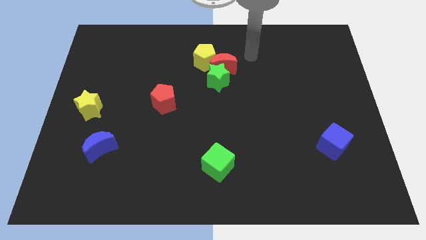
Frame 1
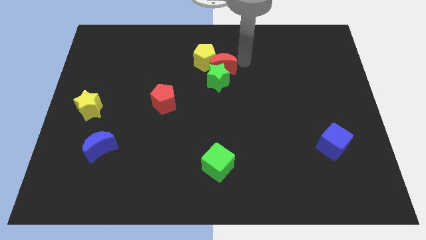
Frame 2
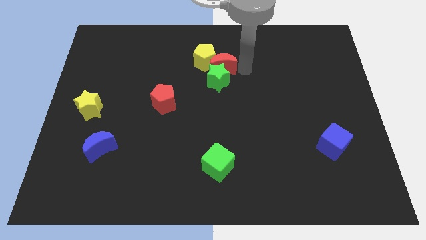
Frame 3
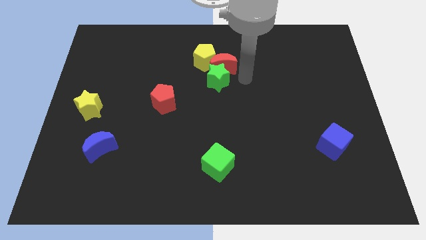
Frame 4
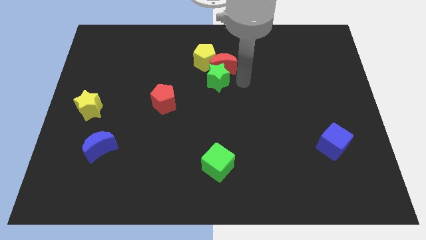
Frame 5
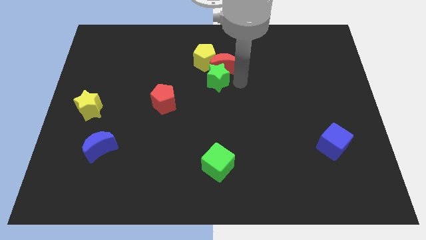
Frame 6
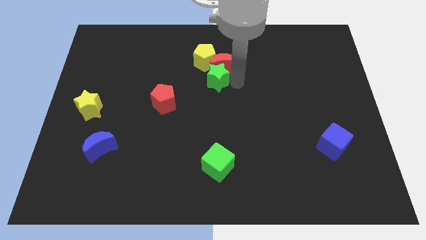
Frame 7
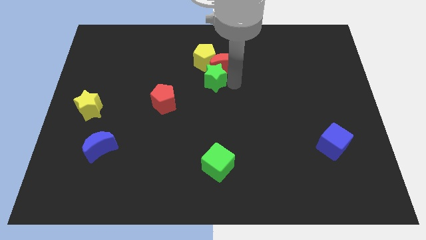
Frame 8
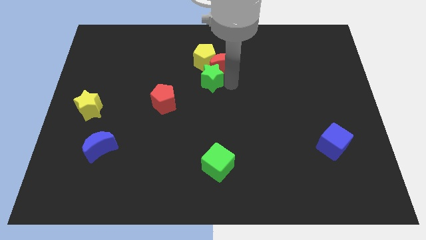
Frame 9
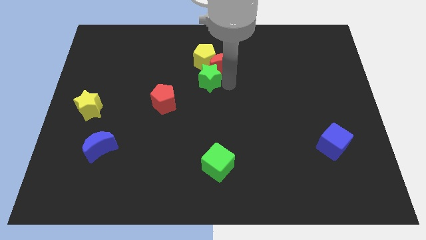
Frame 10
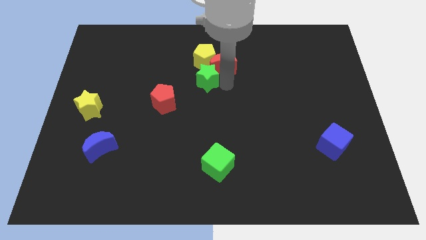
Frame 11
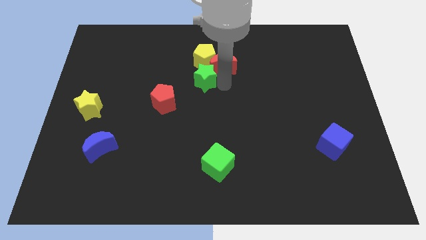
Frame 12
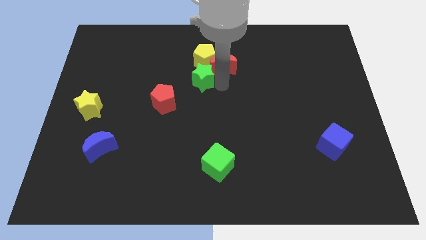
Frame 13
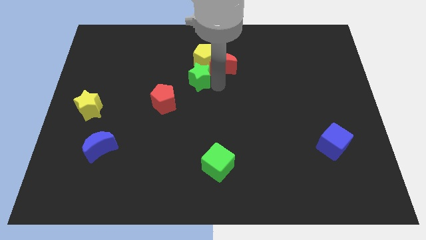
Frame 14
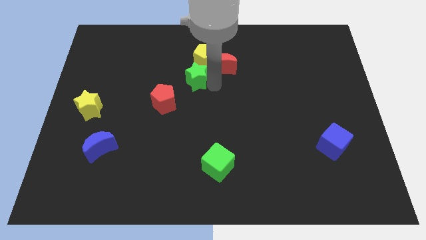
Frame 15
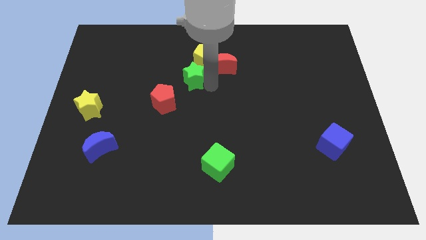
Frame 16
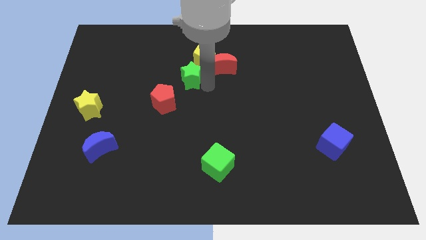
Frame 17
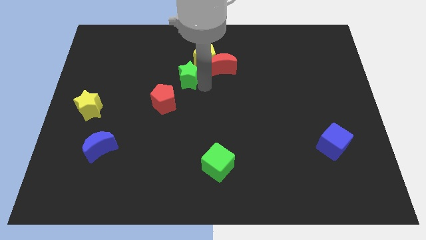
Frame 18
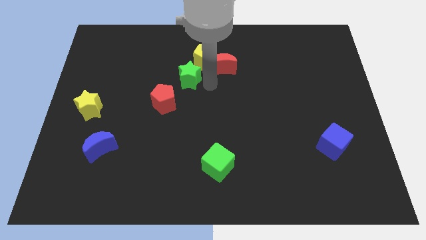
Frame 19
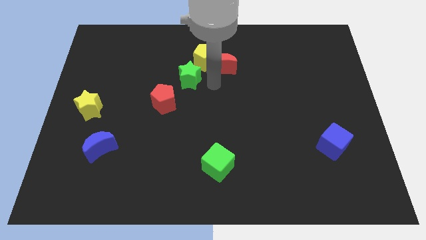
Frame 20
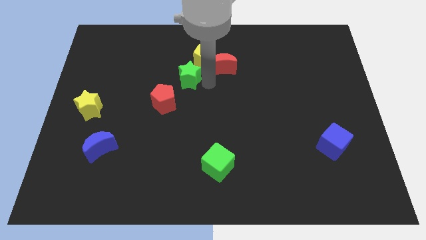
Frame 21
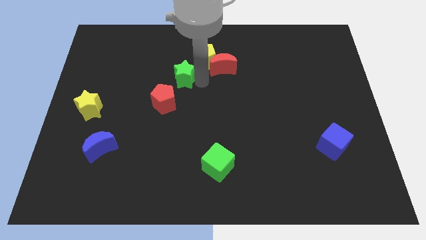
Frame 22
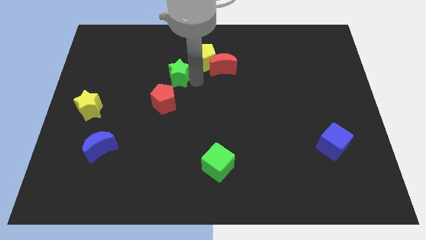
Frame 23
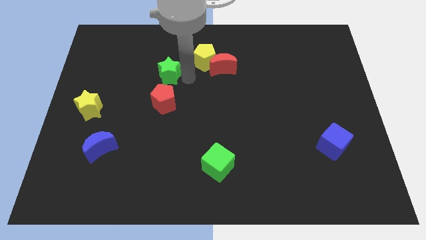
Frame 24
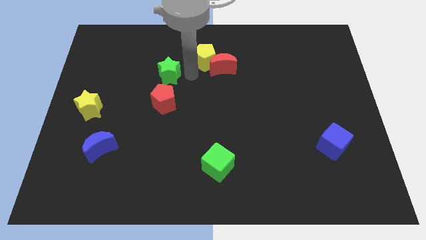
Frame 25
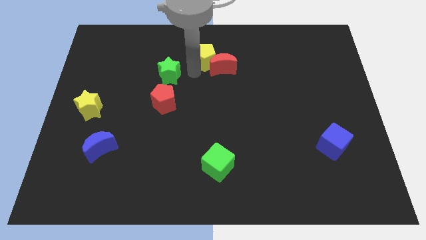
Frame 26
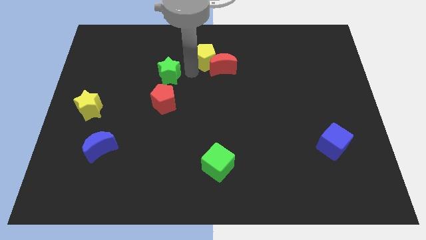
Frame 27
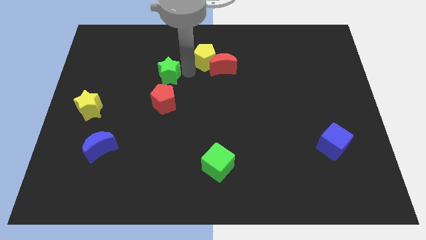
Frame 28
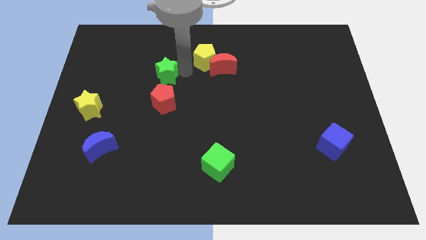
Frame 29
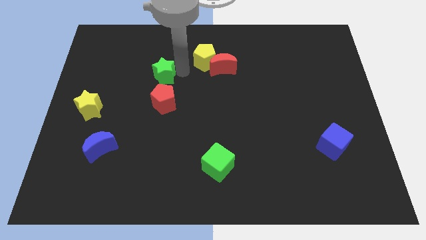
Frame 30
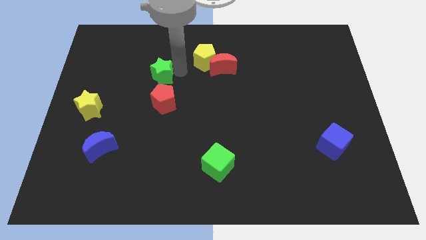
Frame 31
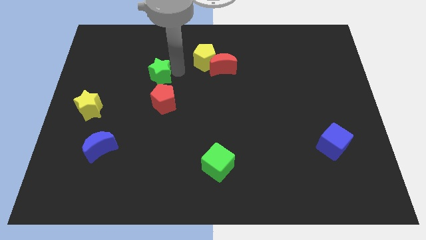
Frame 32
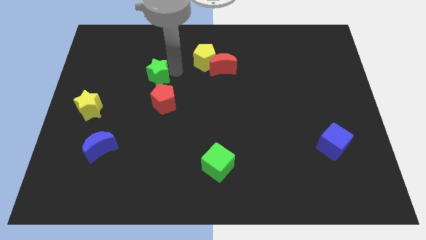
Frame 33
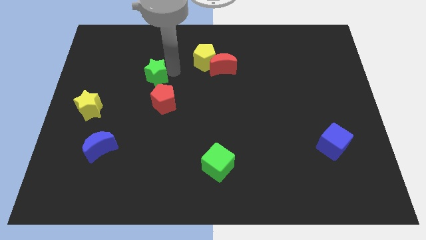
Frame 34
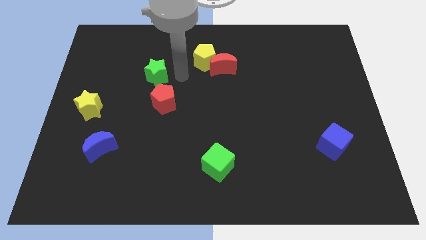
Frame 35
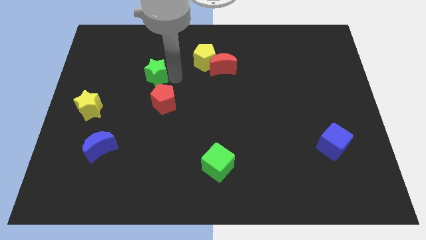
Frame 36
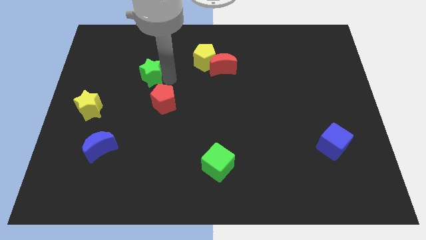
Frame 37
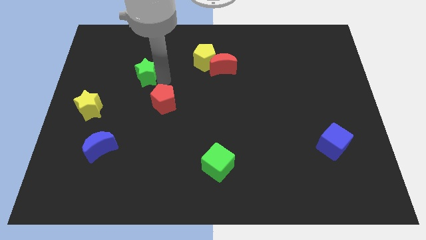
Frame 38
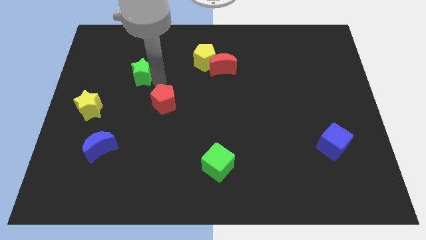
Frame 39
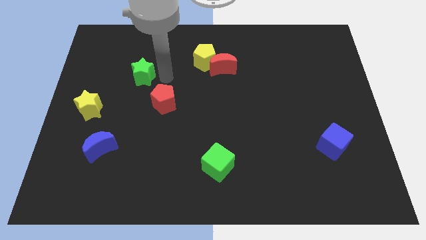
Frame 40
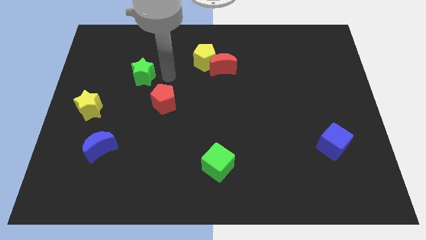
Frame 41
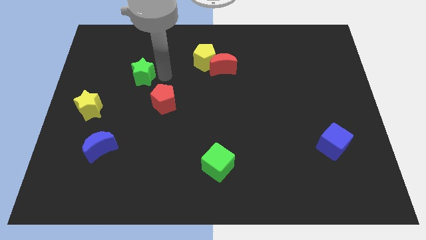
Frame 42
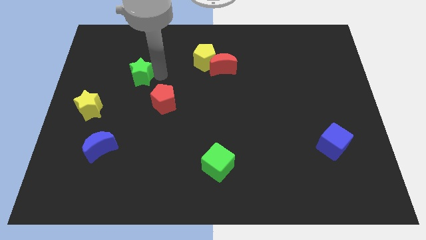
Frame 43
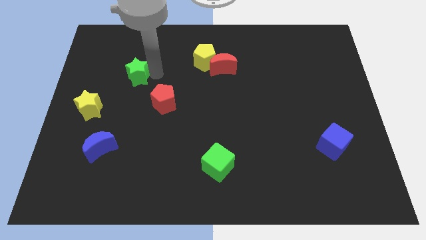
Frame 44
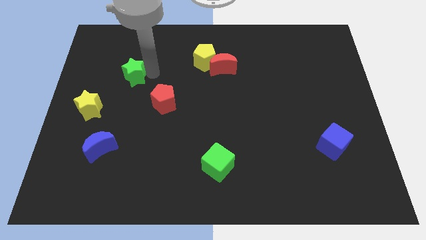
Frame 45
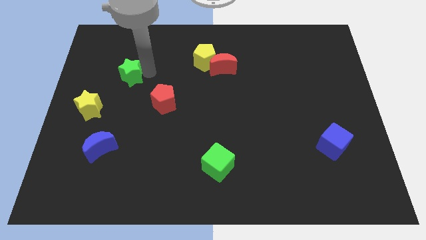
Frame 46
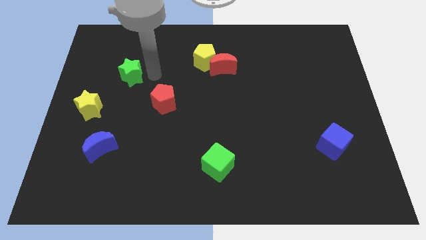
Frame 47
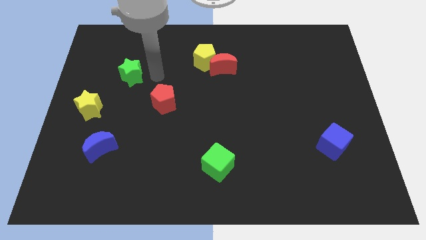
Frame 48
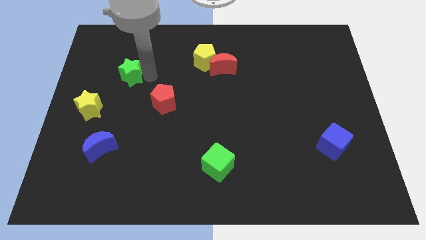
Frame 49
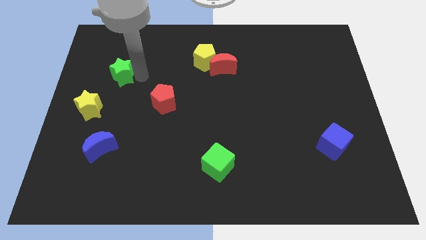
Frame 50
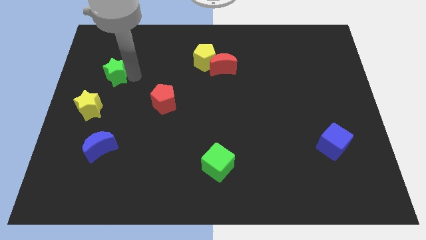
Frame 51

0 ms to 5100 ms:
move the green star to the top side of the yellow star

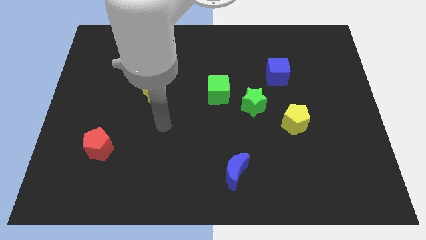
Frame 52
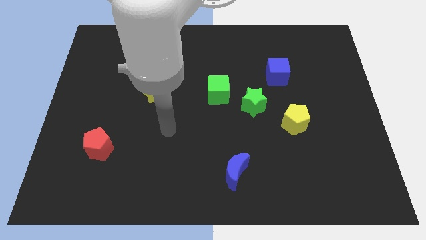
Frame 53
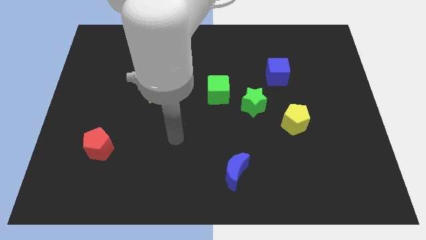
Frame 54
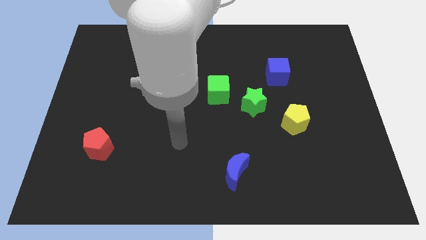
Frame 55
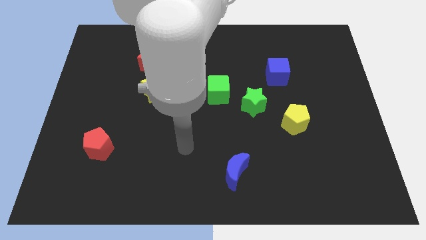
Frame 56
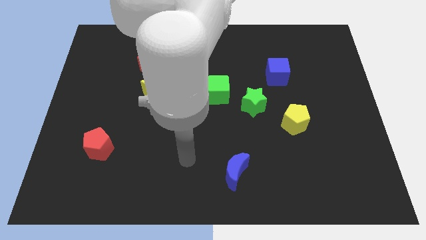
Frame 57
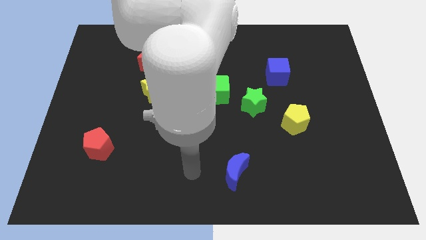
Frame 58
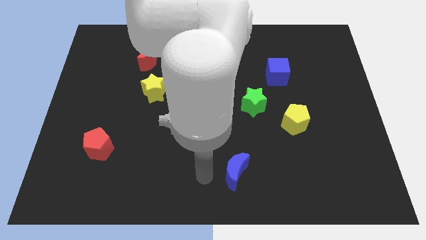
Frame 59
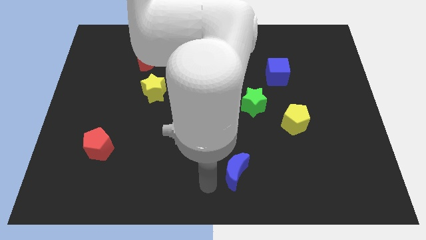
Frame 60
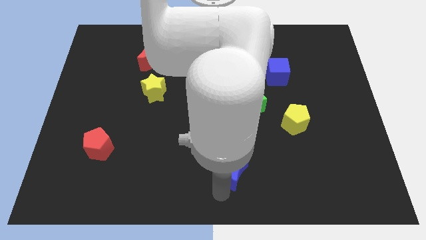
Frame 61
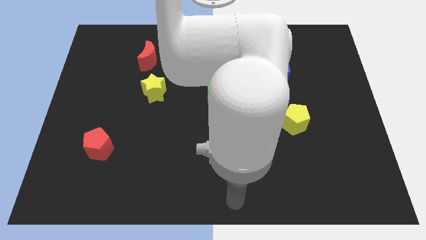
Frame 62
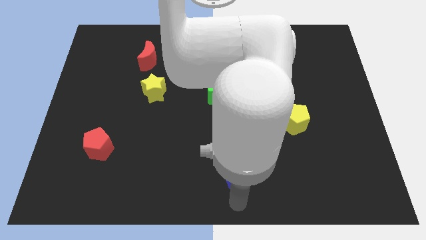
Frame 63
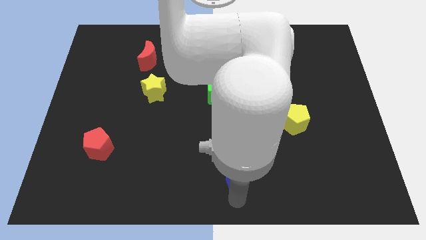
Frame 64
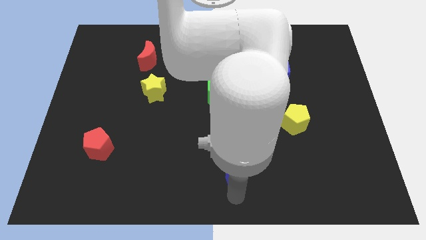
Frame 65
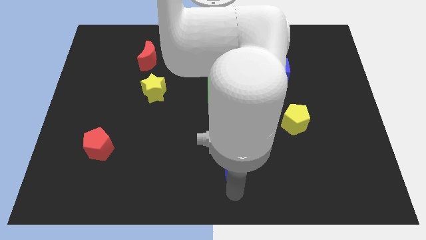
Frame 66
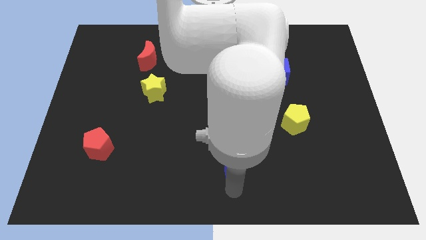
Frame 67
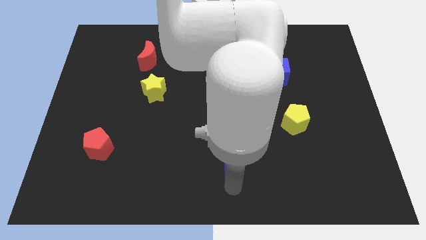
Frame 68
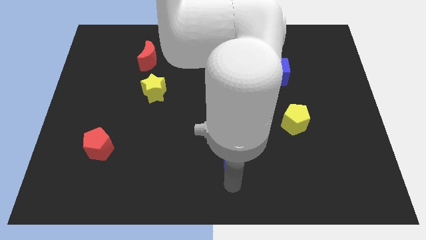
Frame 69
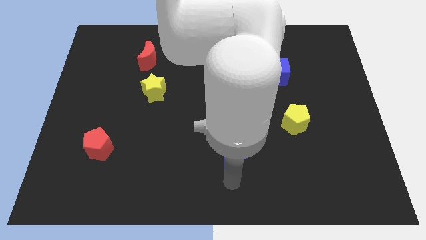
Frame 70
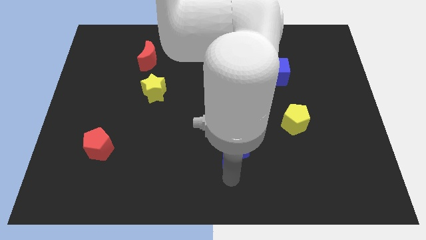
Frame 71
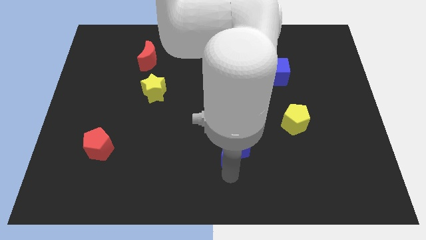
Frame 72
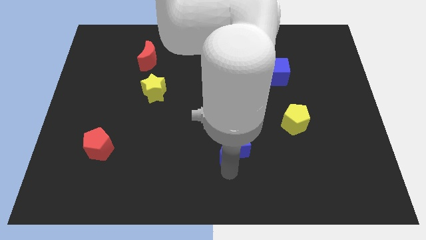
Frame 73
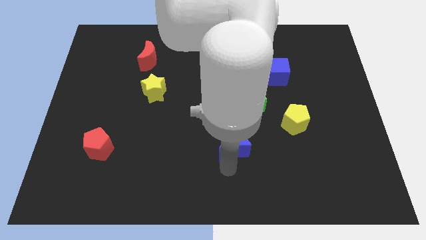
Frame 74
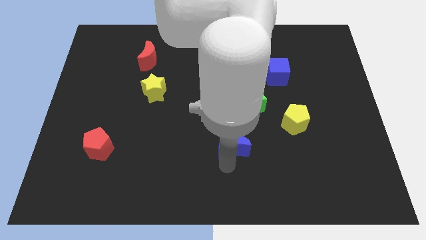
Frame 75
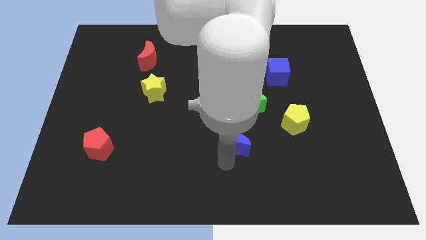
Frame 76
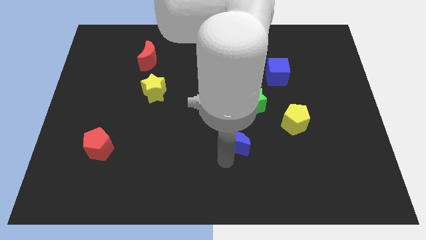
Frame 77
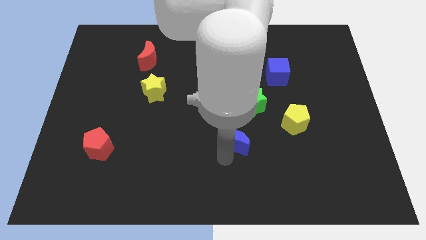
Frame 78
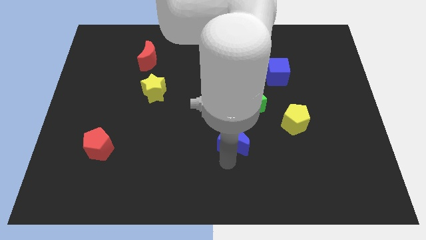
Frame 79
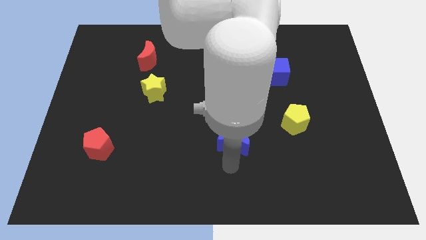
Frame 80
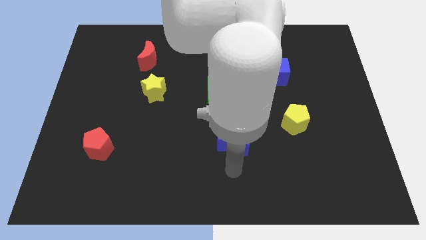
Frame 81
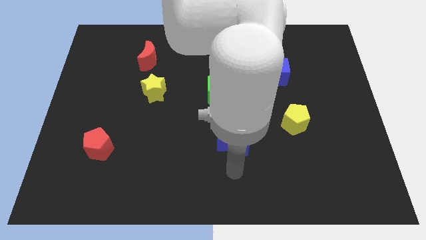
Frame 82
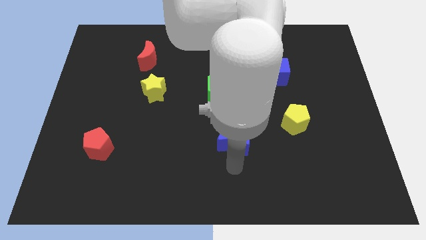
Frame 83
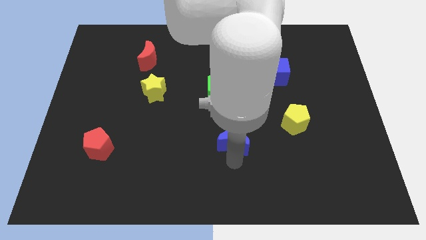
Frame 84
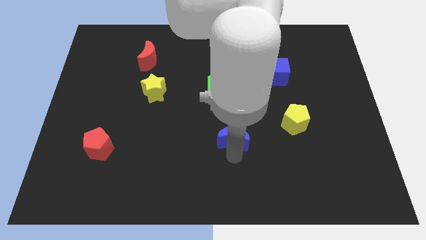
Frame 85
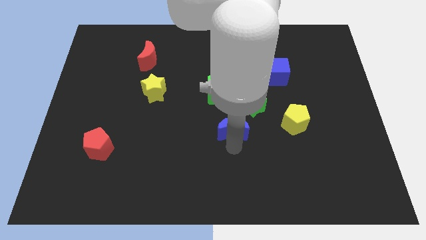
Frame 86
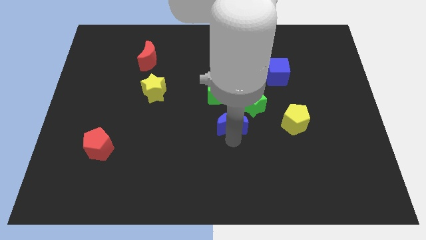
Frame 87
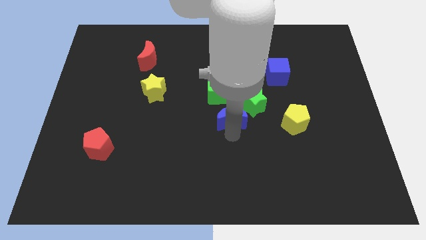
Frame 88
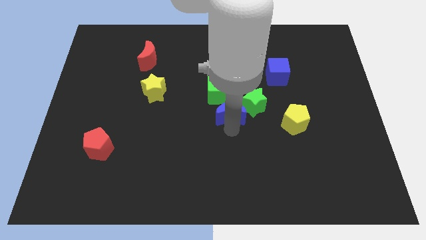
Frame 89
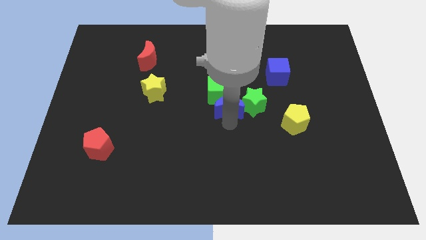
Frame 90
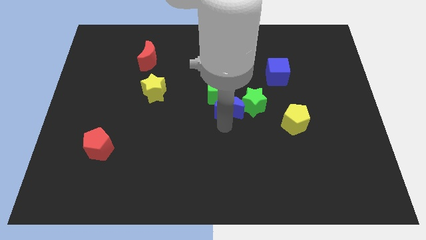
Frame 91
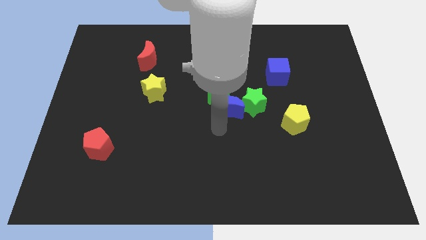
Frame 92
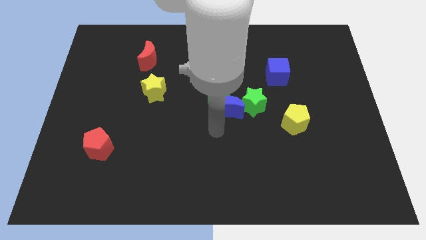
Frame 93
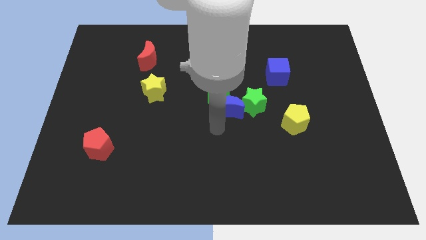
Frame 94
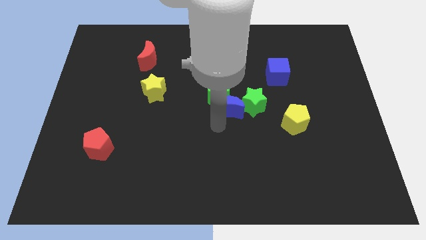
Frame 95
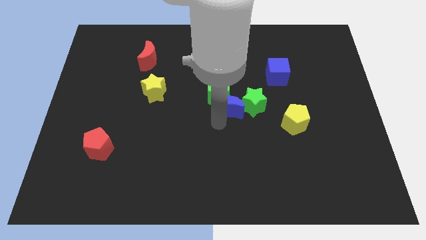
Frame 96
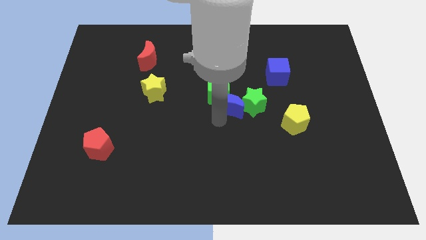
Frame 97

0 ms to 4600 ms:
push the blue moon to the top left side of the green star
